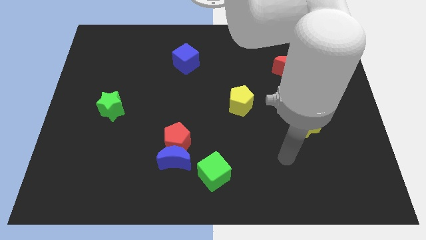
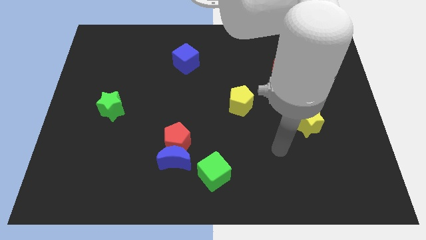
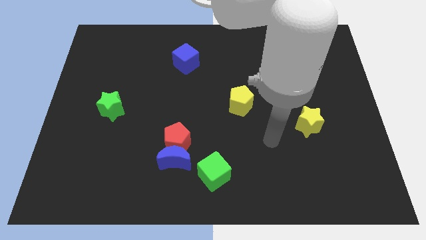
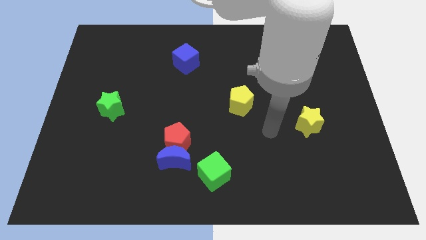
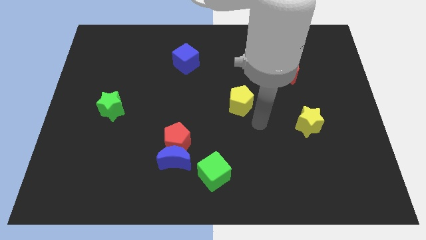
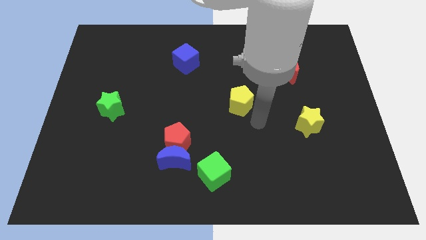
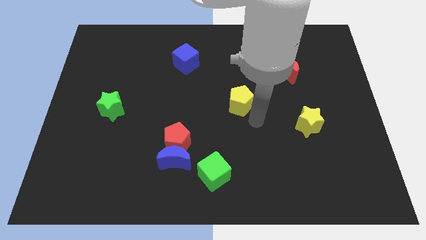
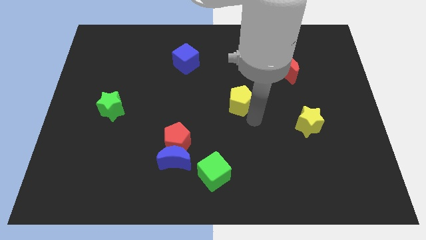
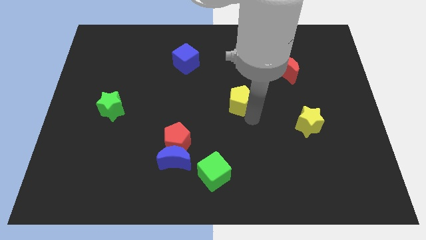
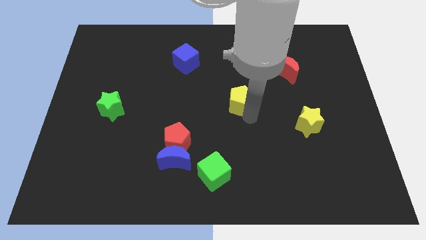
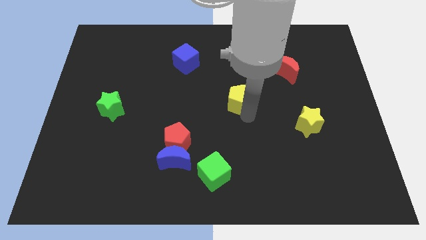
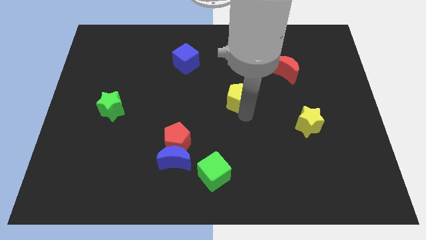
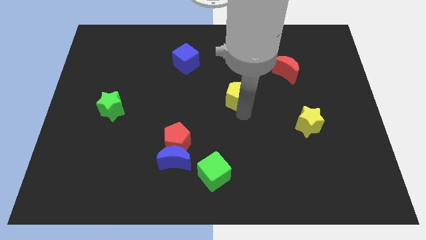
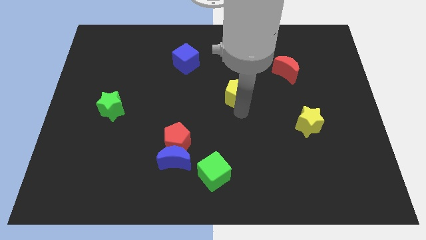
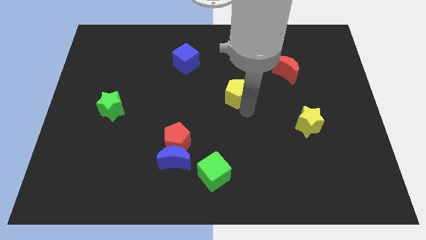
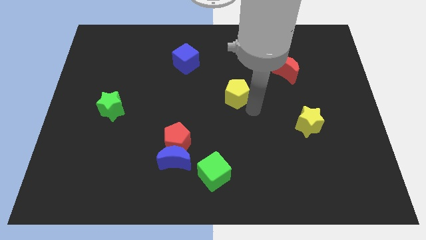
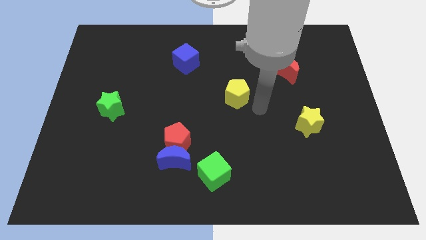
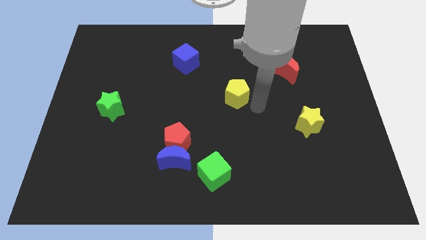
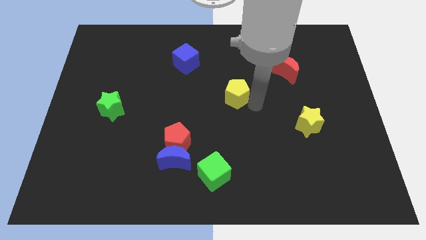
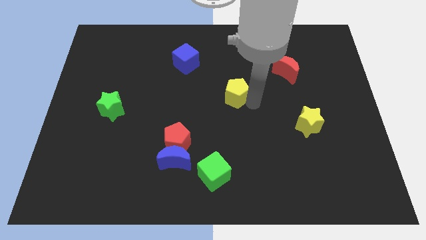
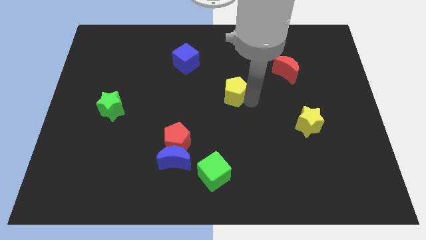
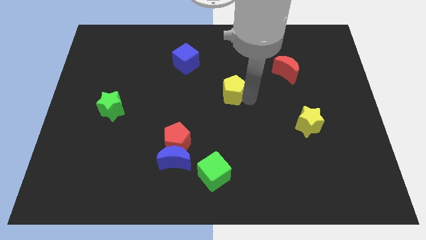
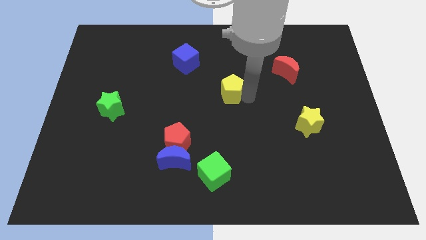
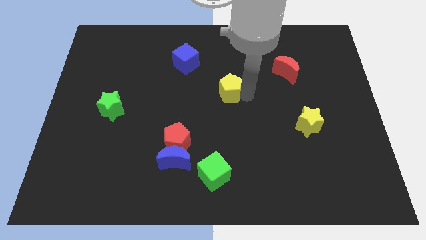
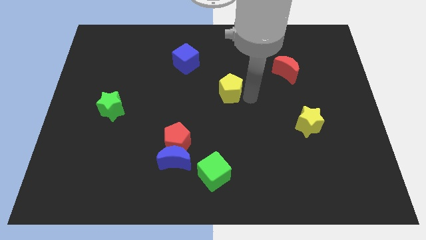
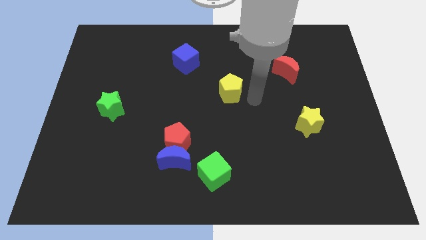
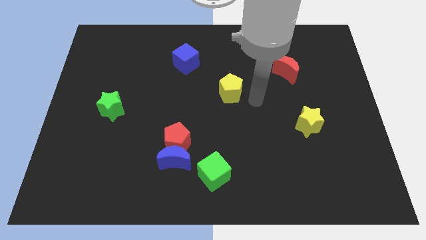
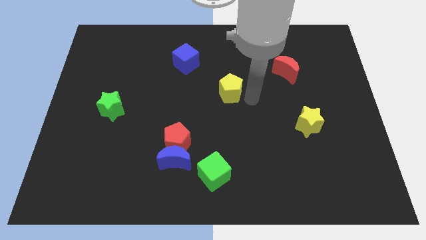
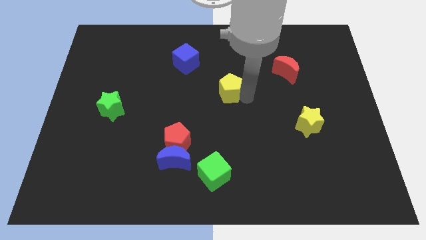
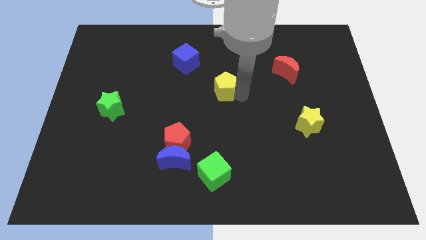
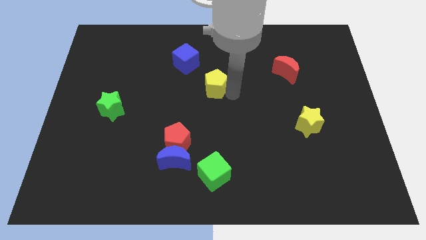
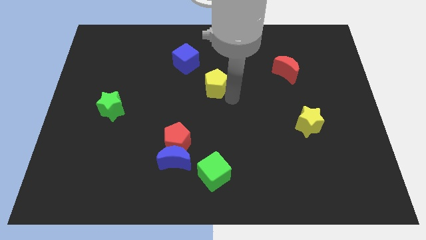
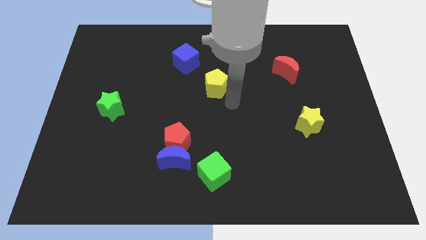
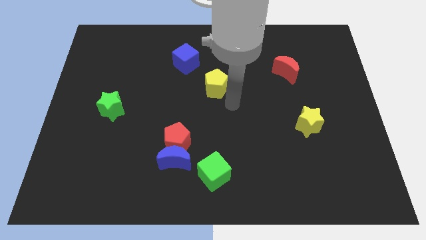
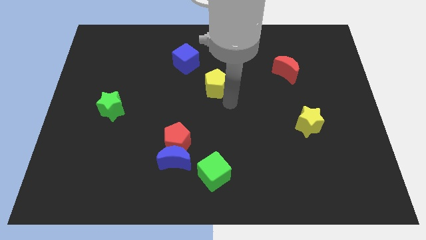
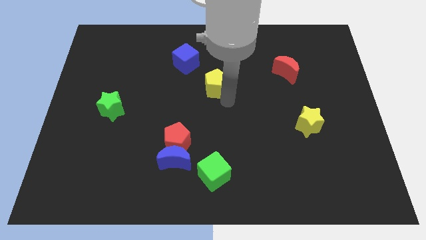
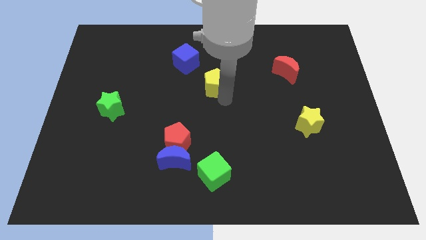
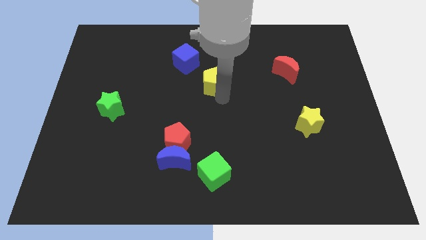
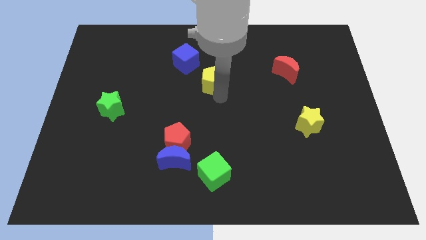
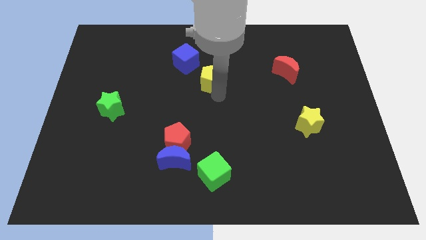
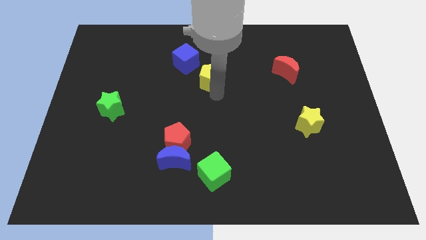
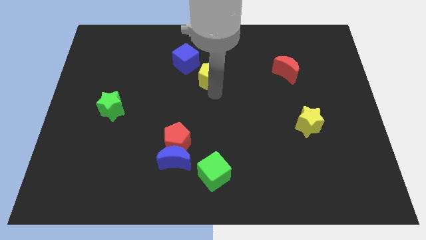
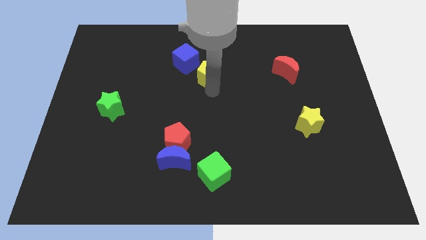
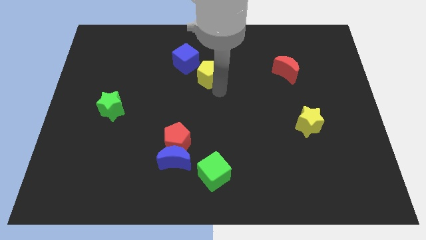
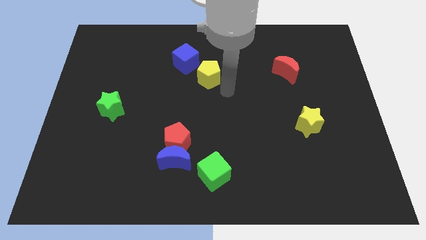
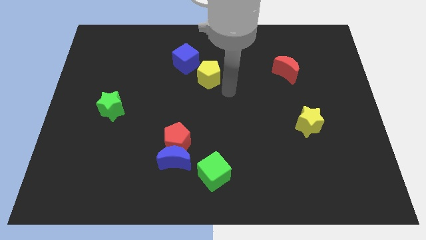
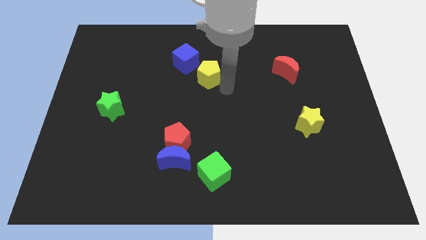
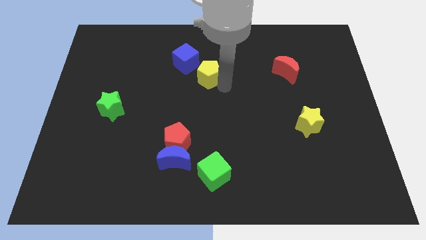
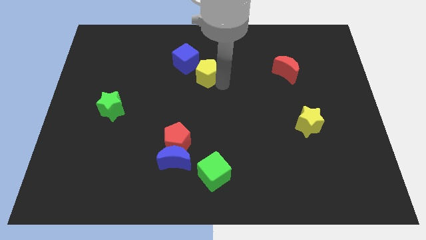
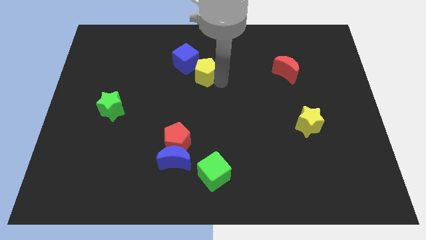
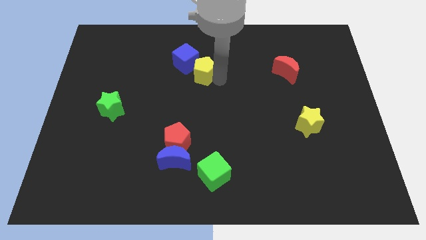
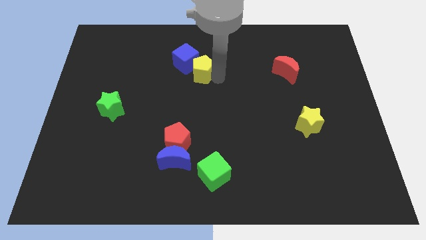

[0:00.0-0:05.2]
slide the yellow pentagon close to the blue cube

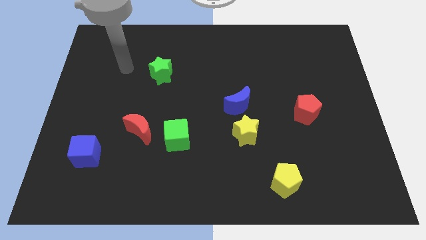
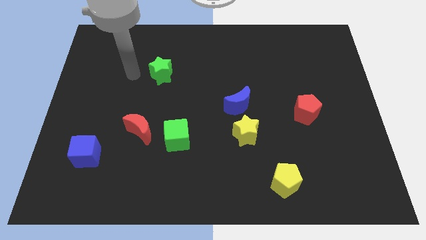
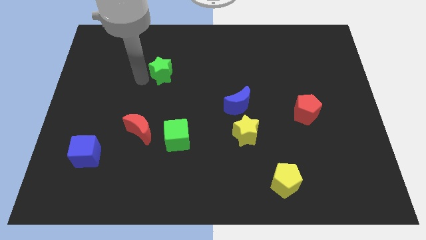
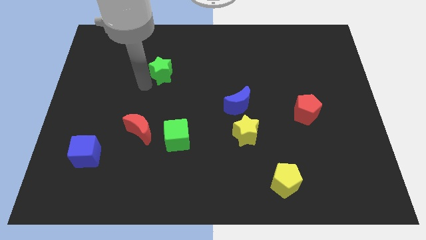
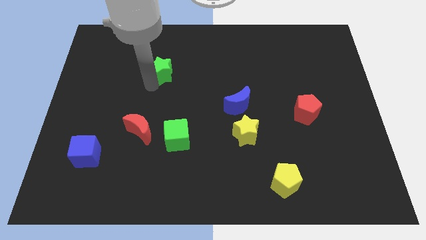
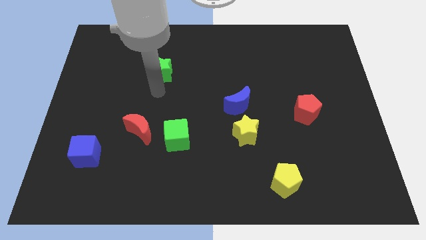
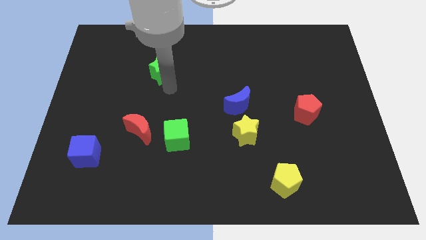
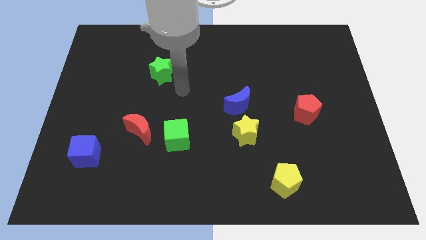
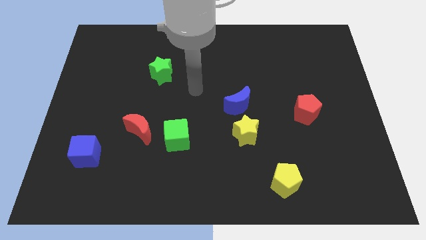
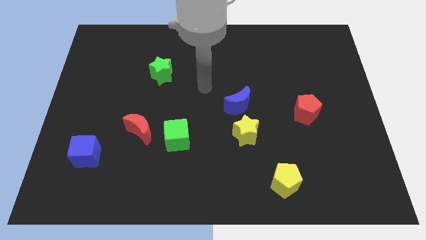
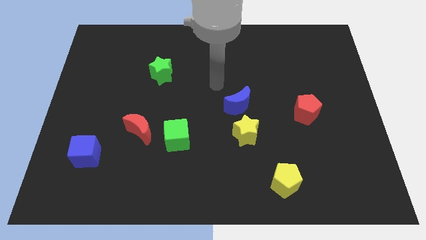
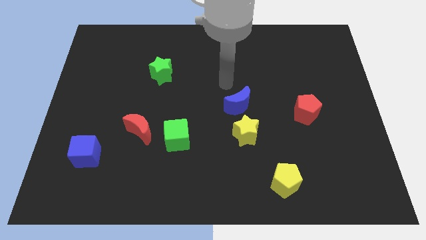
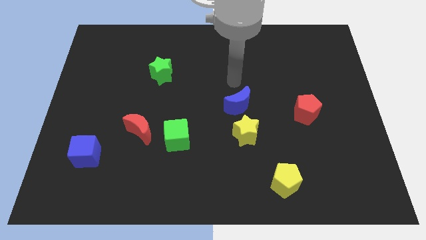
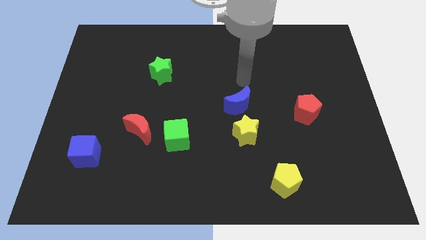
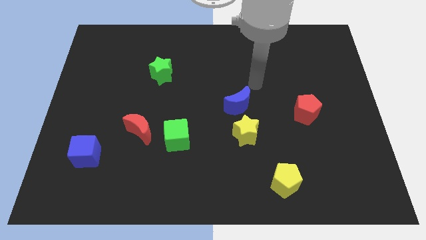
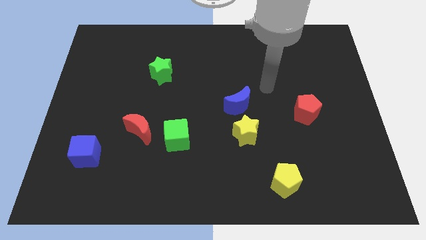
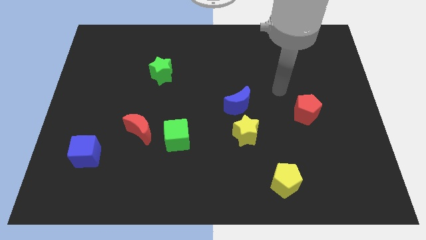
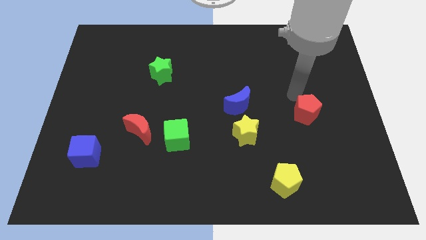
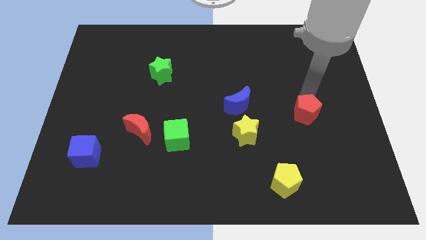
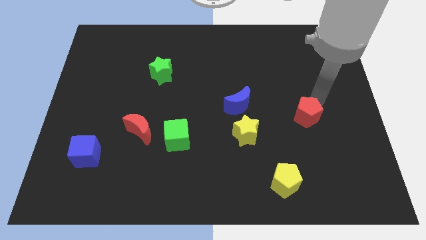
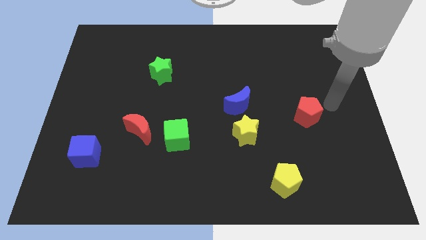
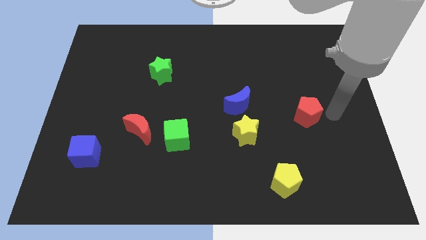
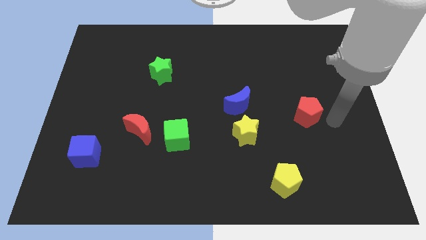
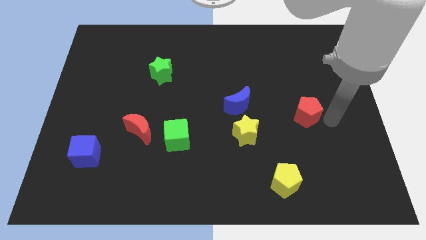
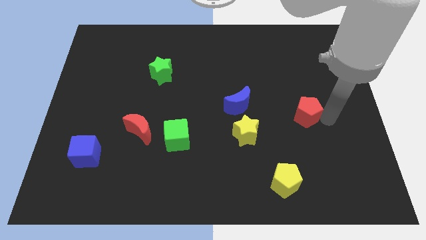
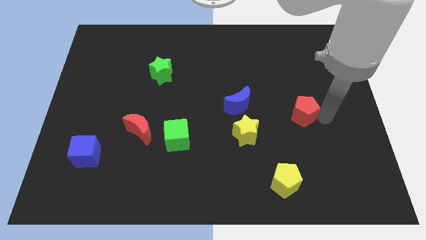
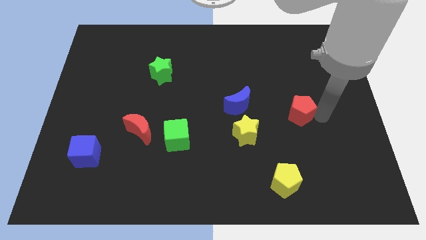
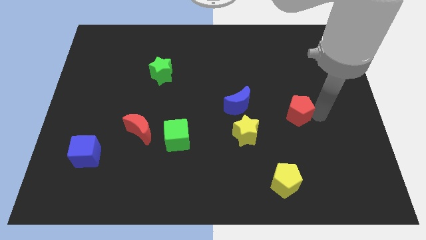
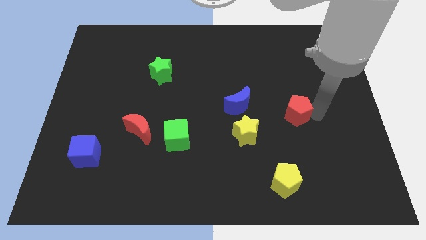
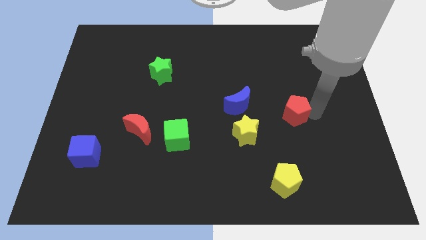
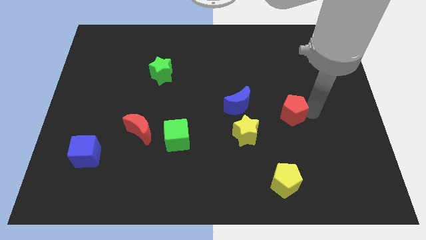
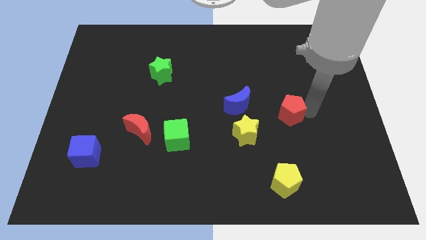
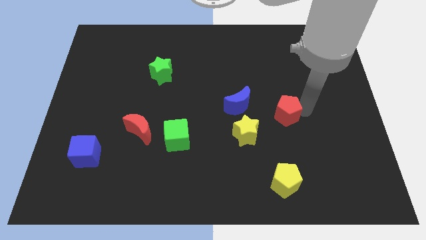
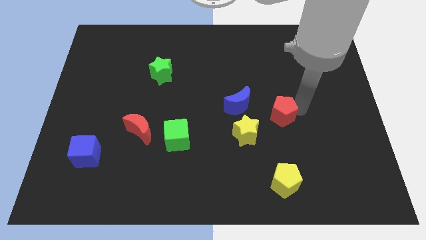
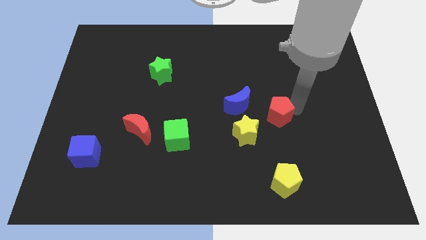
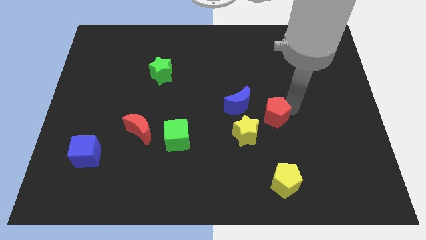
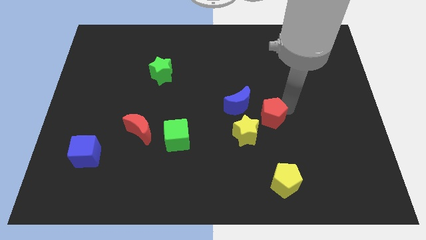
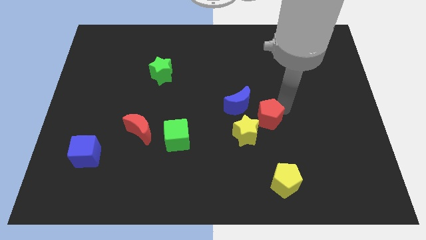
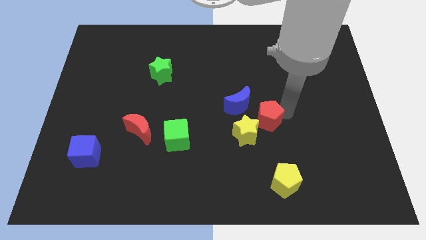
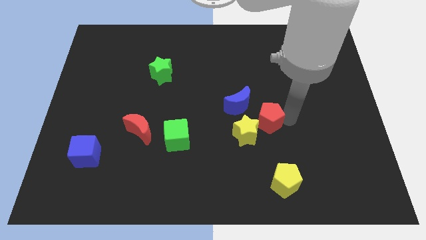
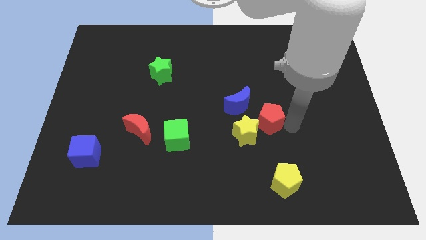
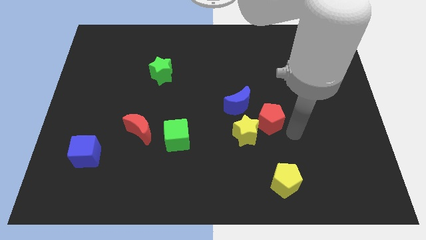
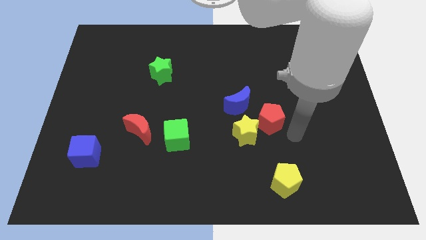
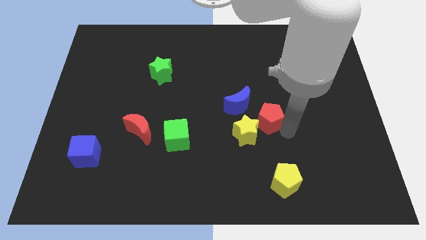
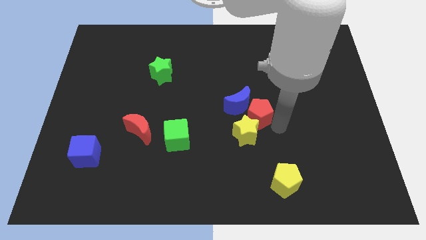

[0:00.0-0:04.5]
move the red pentagon next to the blue moon
